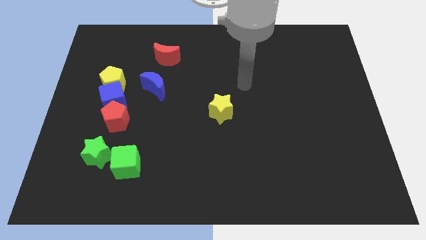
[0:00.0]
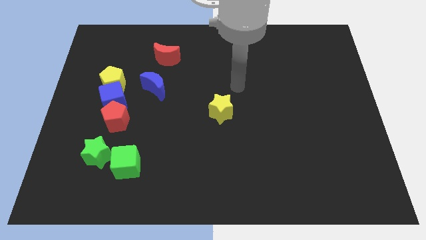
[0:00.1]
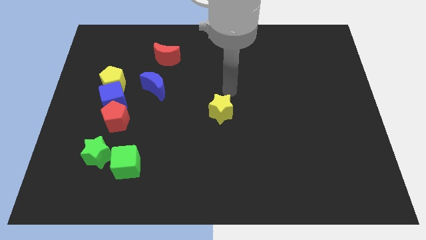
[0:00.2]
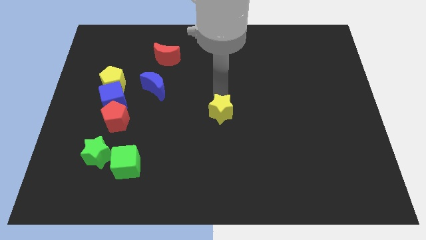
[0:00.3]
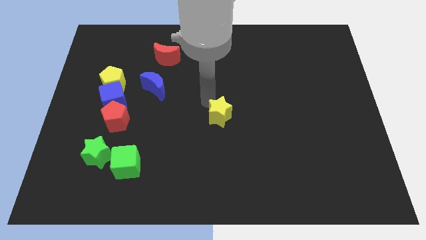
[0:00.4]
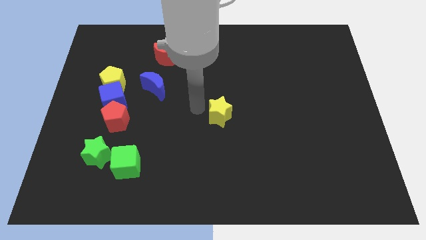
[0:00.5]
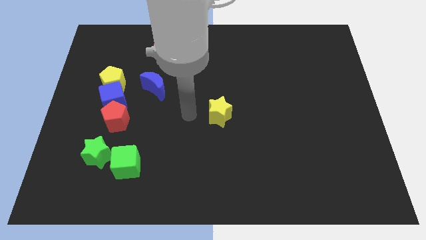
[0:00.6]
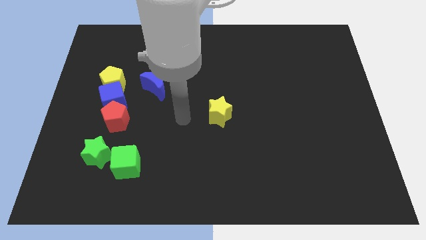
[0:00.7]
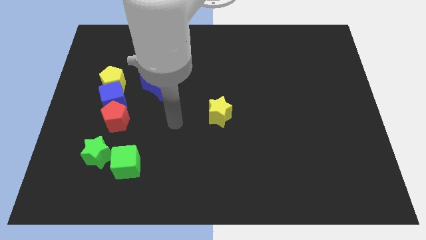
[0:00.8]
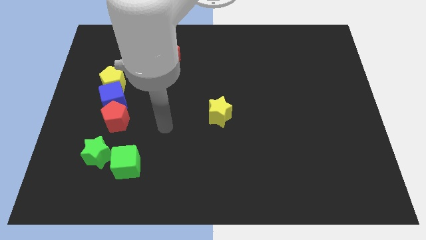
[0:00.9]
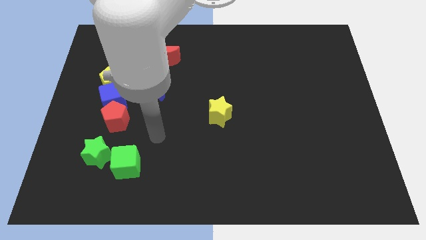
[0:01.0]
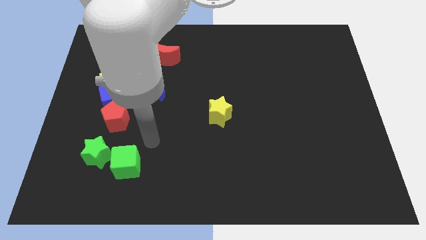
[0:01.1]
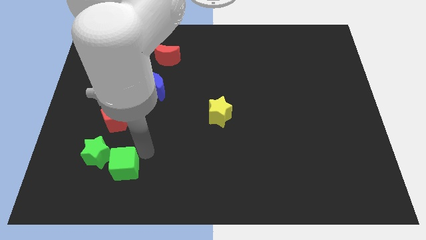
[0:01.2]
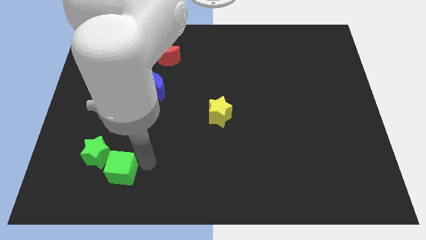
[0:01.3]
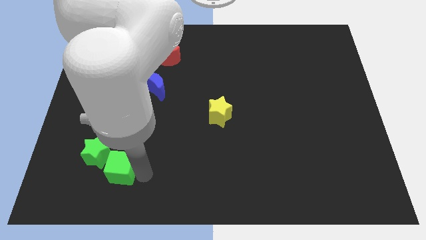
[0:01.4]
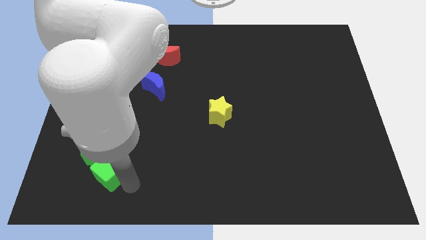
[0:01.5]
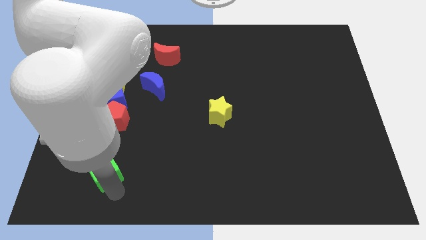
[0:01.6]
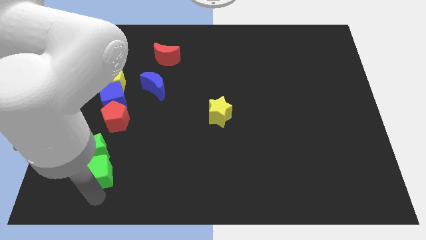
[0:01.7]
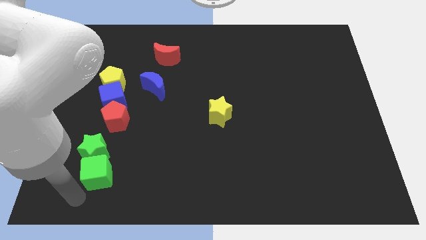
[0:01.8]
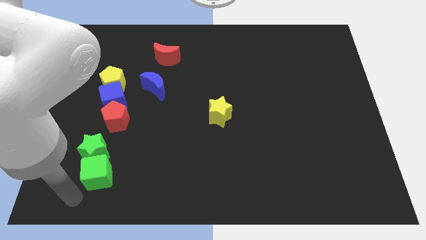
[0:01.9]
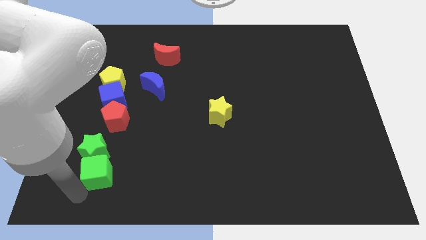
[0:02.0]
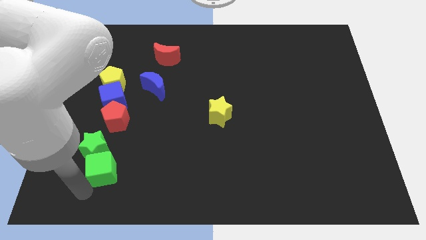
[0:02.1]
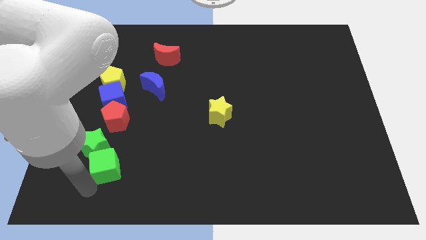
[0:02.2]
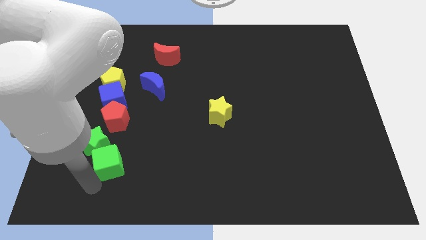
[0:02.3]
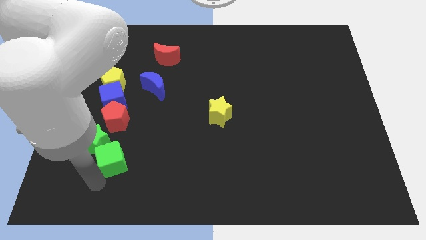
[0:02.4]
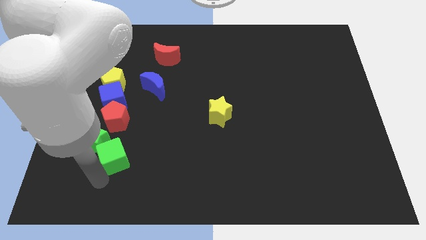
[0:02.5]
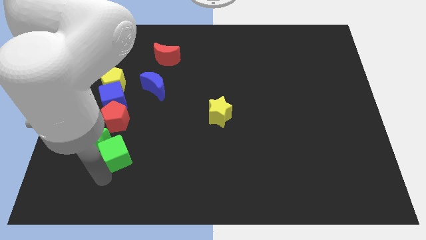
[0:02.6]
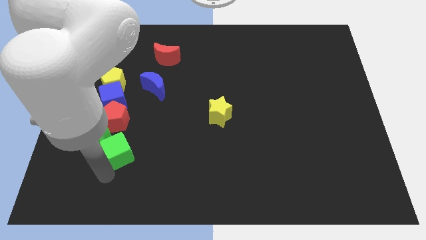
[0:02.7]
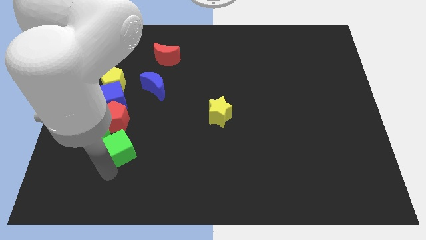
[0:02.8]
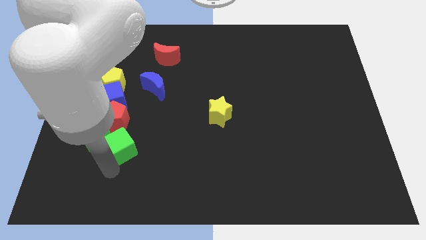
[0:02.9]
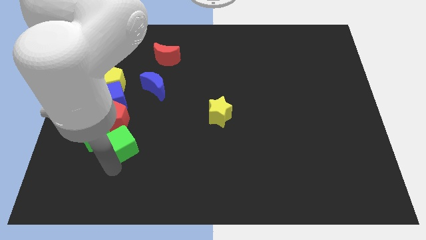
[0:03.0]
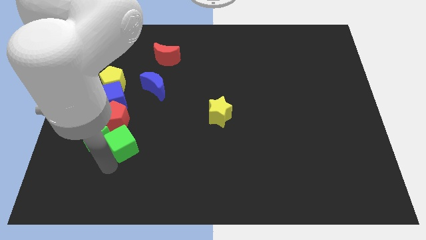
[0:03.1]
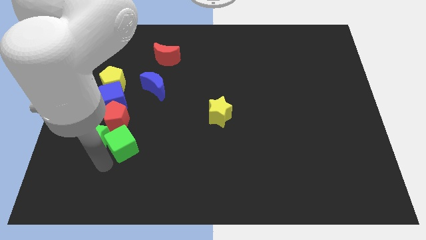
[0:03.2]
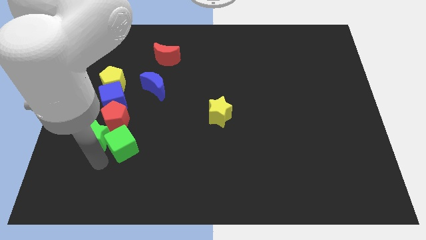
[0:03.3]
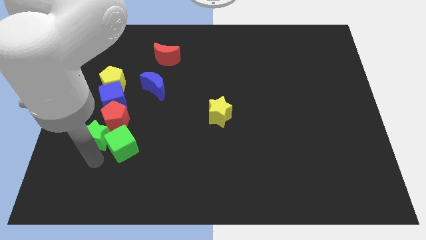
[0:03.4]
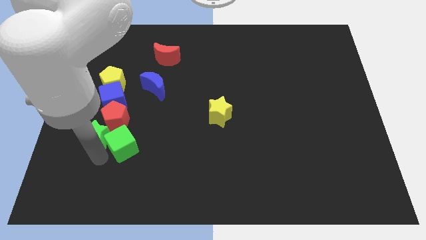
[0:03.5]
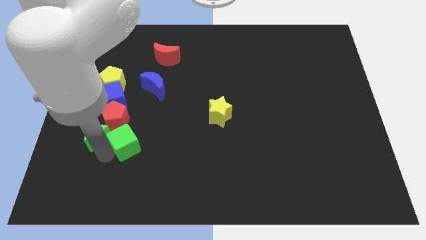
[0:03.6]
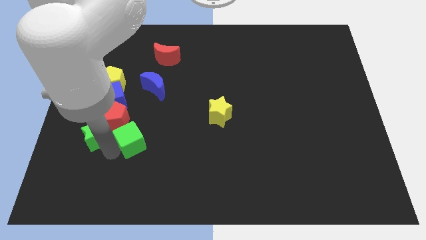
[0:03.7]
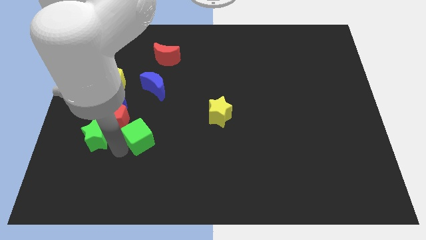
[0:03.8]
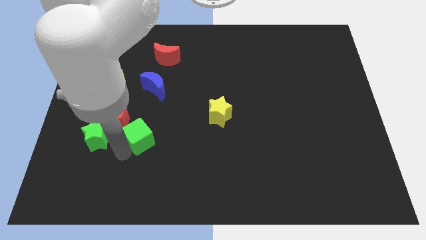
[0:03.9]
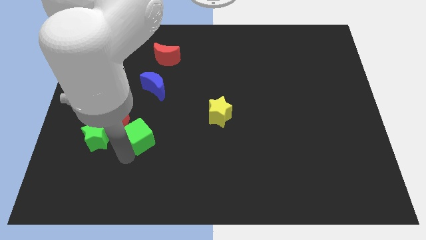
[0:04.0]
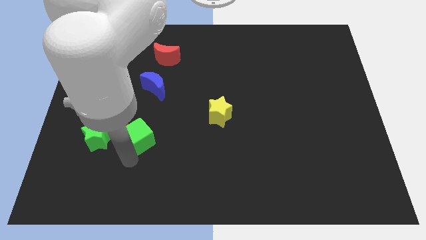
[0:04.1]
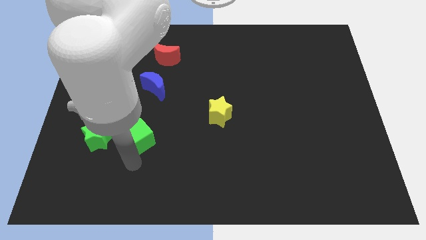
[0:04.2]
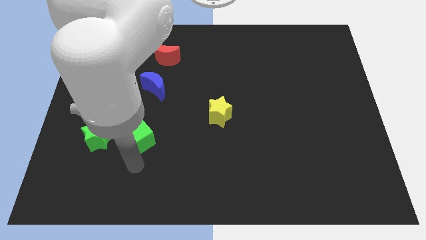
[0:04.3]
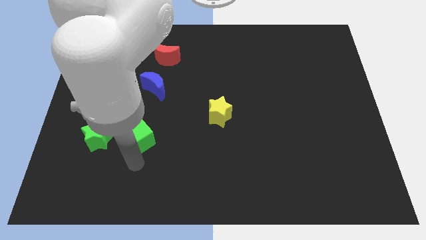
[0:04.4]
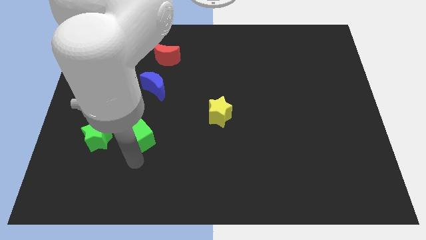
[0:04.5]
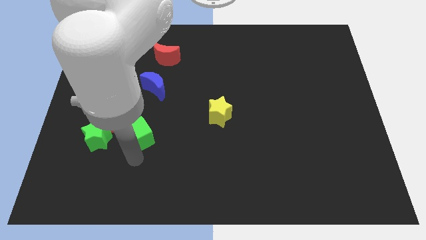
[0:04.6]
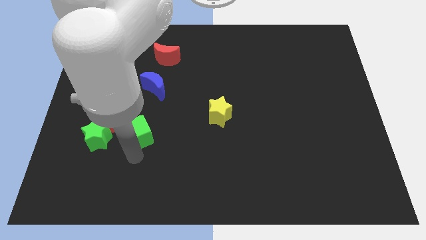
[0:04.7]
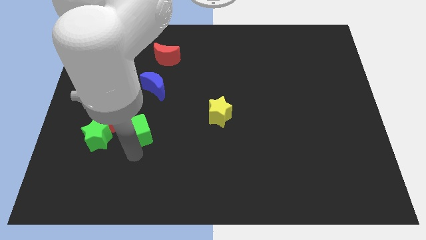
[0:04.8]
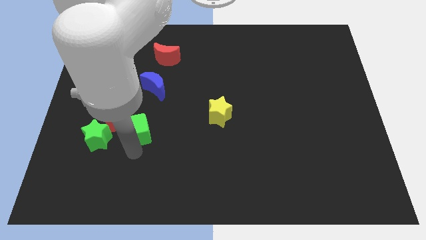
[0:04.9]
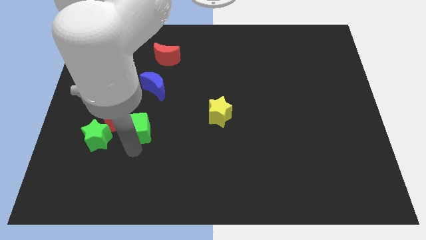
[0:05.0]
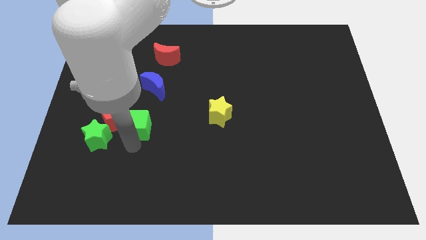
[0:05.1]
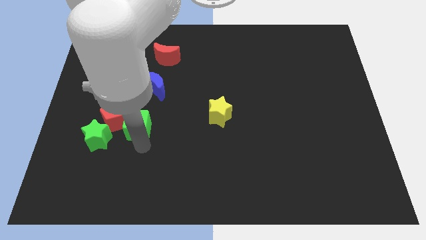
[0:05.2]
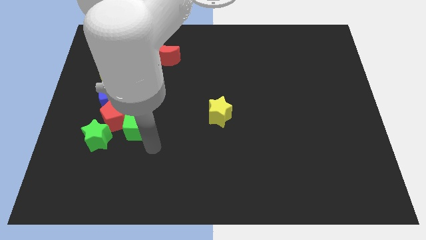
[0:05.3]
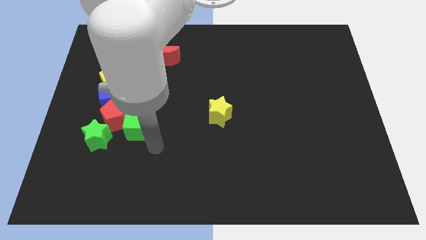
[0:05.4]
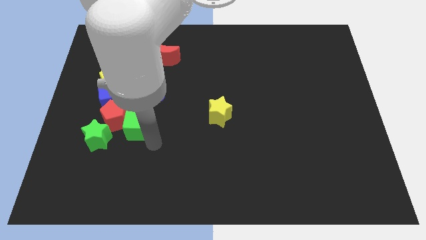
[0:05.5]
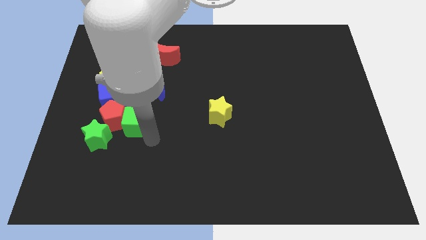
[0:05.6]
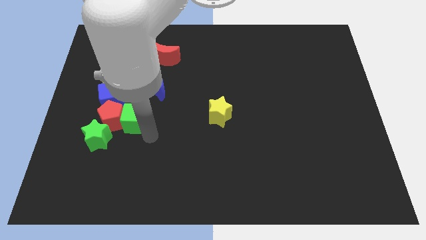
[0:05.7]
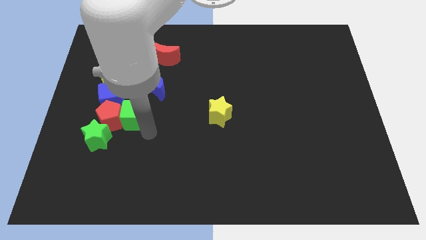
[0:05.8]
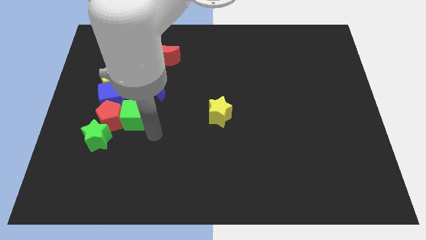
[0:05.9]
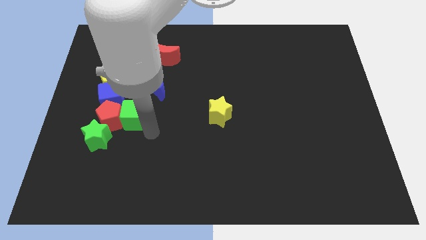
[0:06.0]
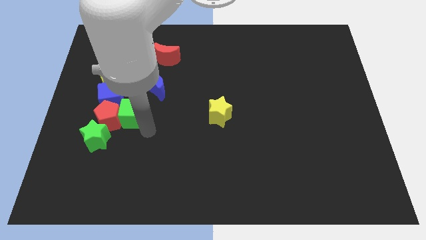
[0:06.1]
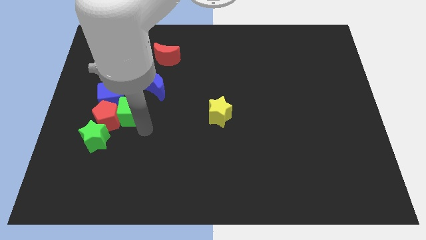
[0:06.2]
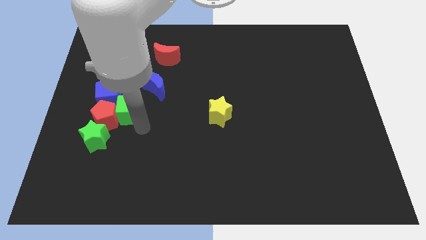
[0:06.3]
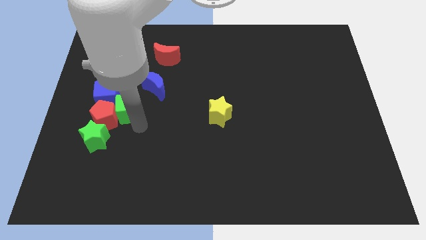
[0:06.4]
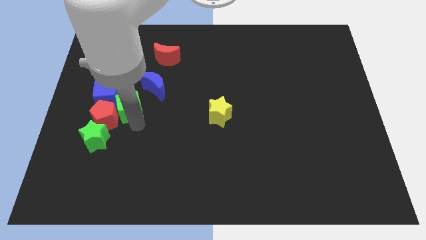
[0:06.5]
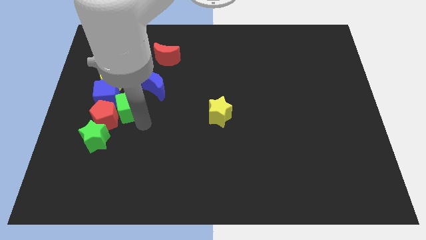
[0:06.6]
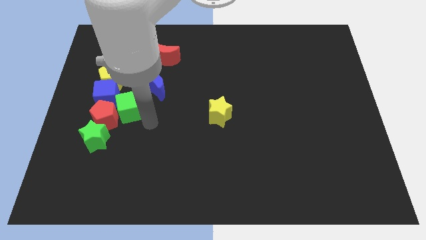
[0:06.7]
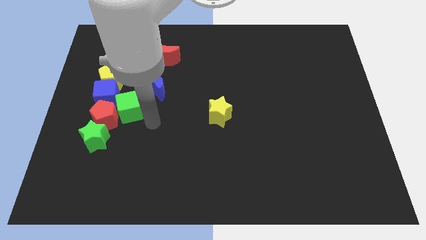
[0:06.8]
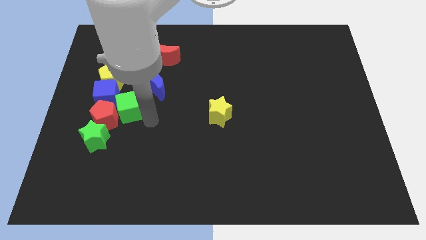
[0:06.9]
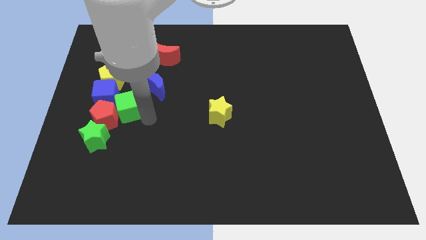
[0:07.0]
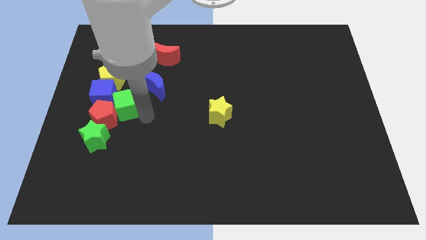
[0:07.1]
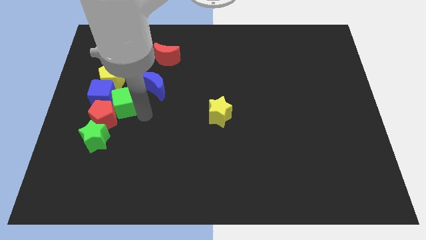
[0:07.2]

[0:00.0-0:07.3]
push the green cube towards the blue cube
